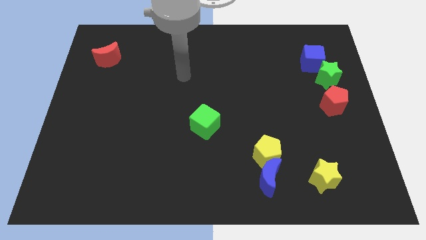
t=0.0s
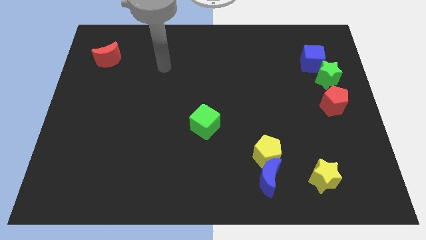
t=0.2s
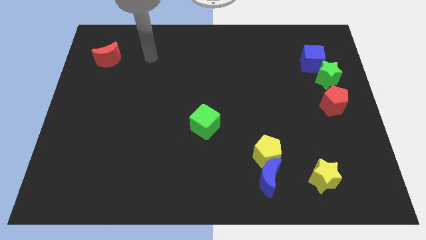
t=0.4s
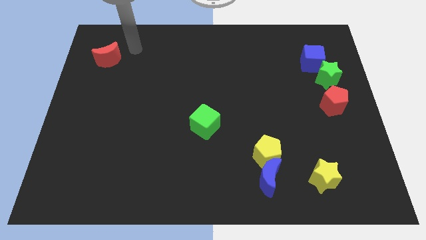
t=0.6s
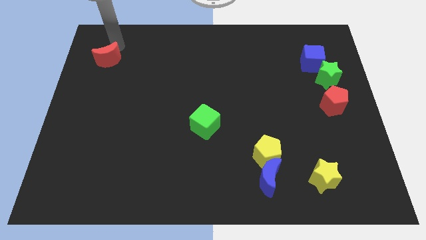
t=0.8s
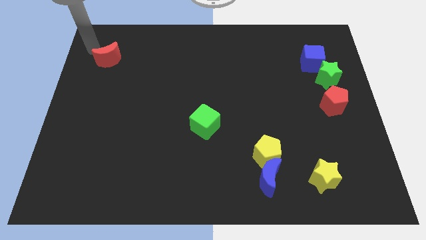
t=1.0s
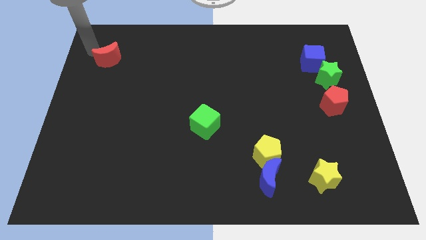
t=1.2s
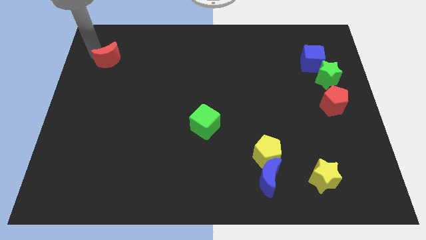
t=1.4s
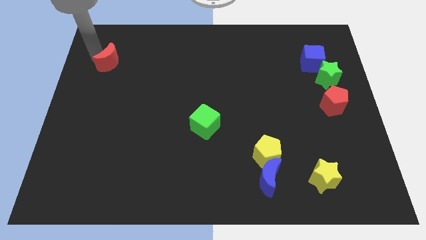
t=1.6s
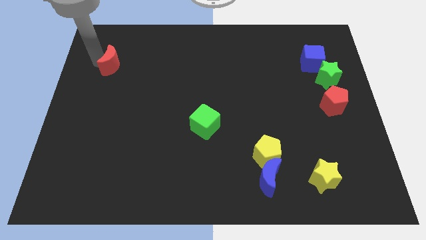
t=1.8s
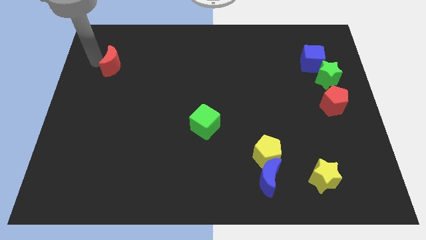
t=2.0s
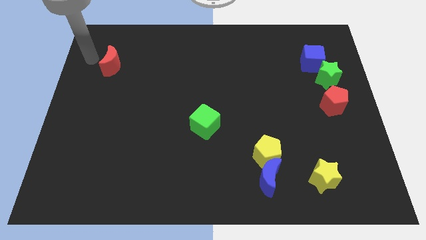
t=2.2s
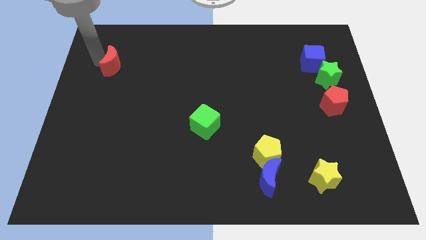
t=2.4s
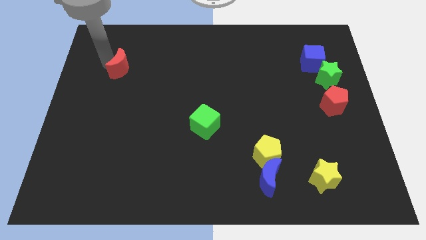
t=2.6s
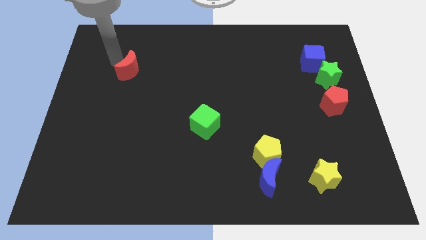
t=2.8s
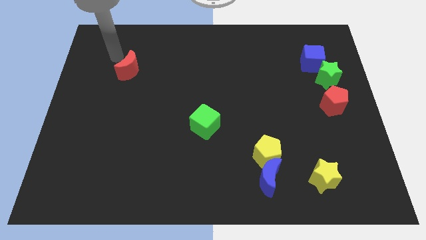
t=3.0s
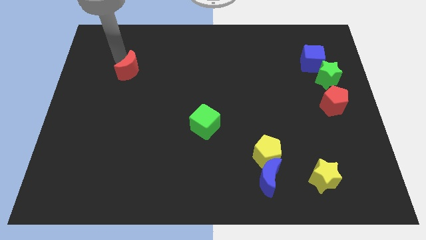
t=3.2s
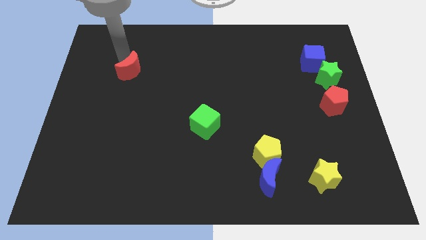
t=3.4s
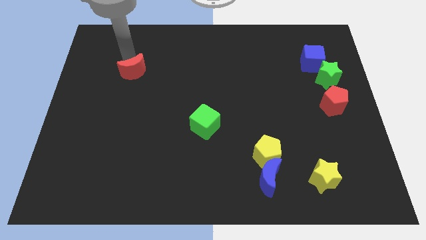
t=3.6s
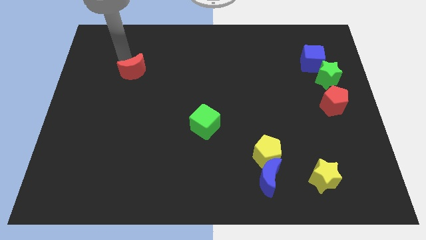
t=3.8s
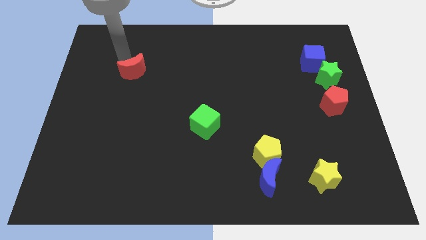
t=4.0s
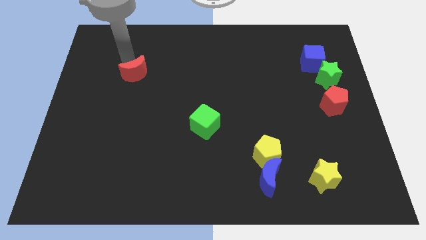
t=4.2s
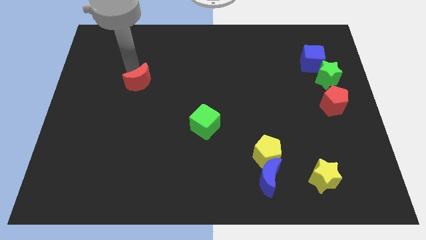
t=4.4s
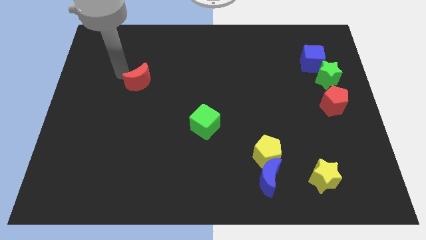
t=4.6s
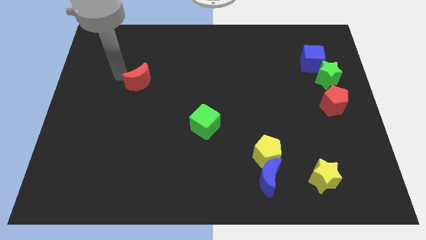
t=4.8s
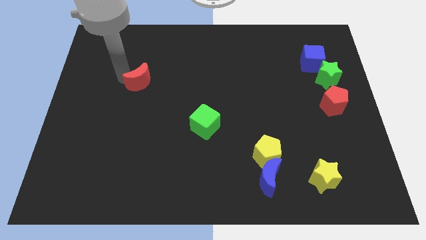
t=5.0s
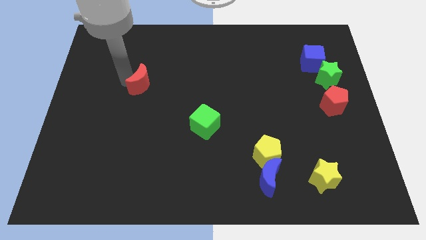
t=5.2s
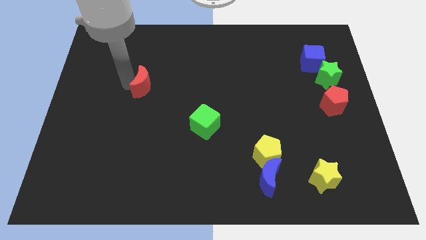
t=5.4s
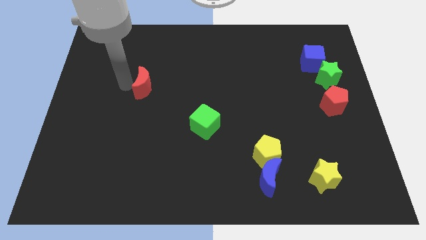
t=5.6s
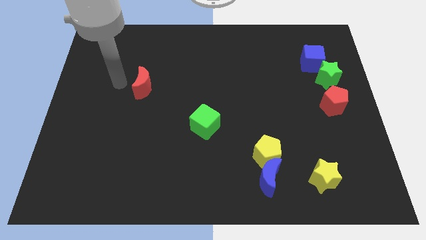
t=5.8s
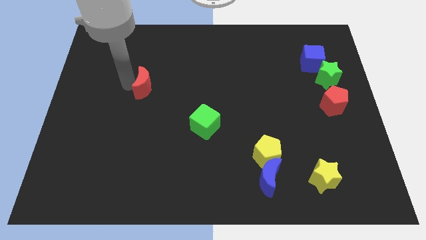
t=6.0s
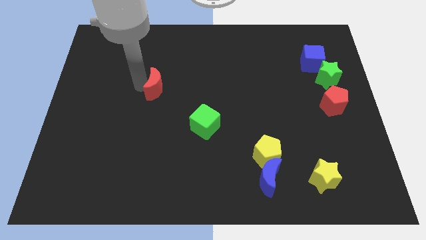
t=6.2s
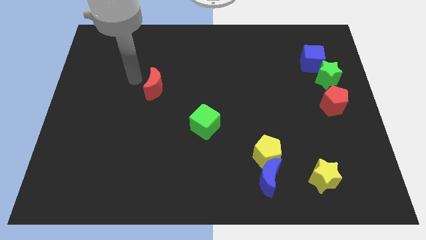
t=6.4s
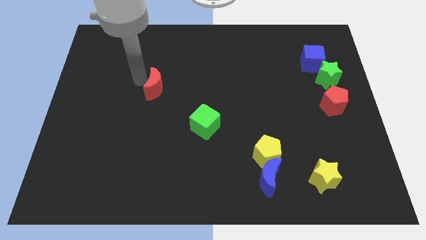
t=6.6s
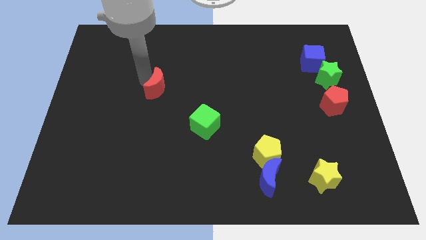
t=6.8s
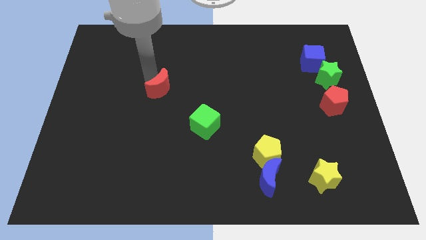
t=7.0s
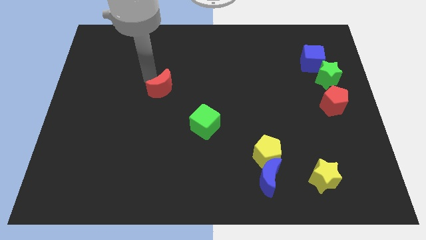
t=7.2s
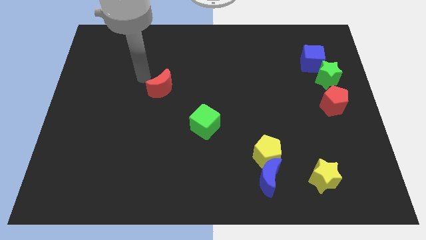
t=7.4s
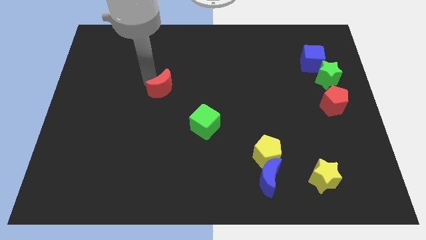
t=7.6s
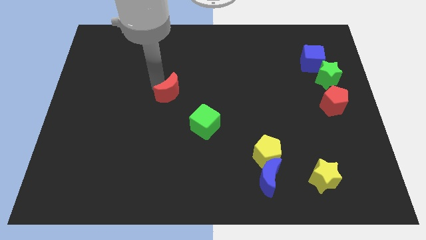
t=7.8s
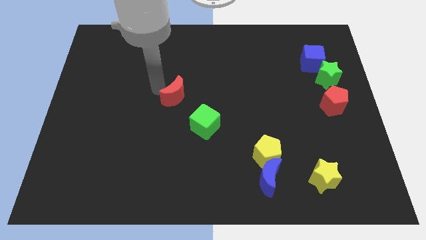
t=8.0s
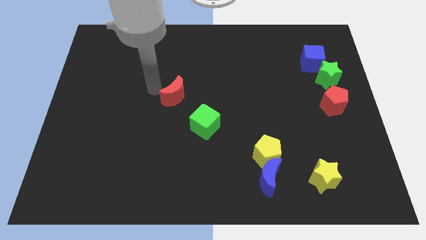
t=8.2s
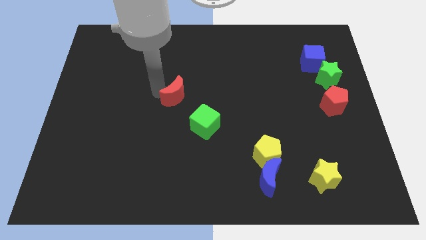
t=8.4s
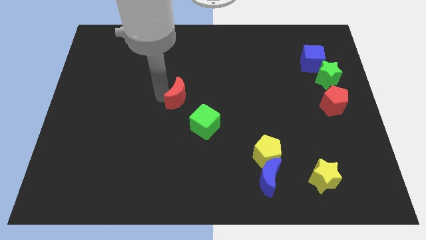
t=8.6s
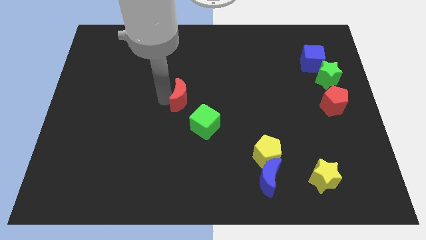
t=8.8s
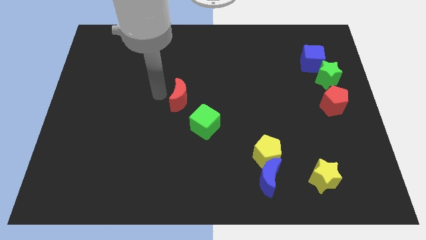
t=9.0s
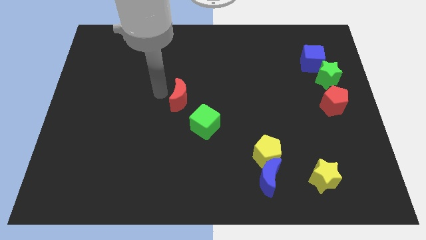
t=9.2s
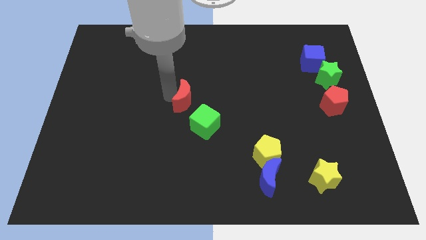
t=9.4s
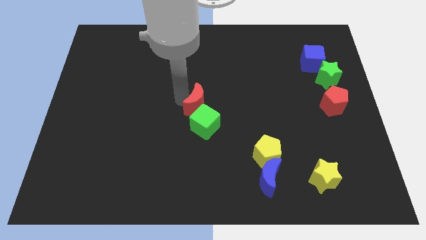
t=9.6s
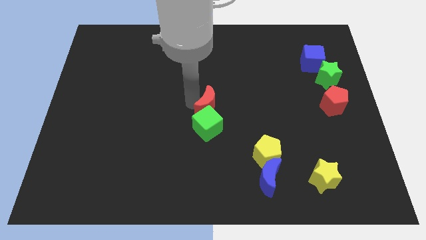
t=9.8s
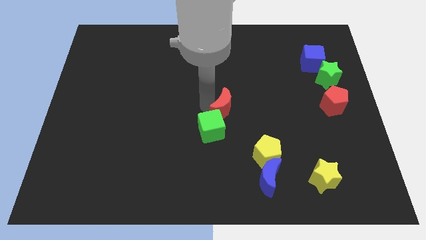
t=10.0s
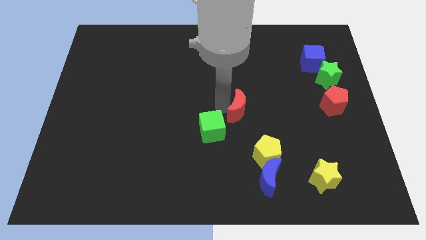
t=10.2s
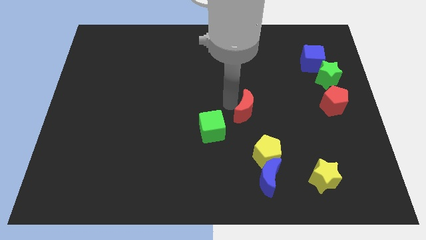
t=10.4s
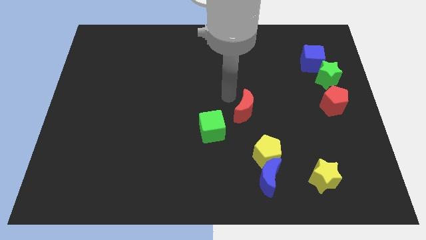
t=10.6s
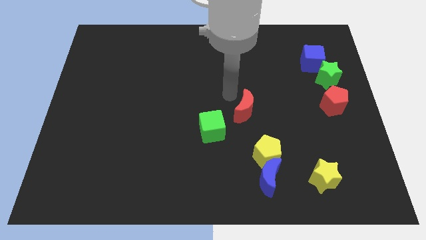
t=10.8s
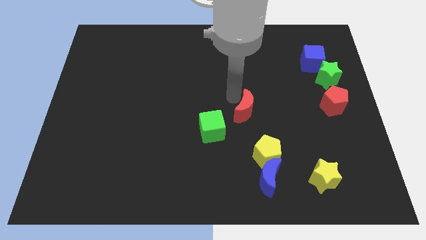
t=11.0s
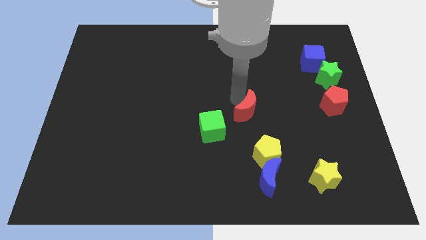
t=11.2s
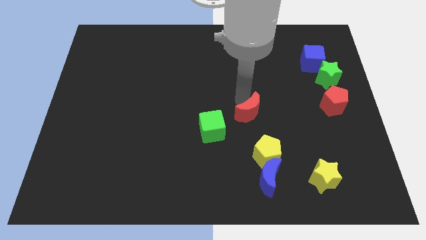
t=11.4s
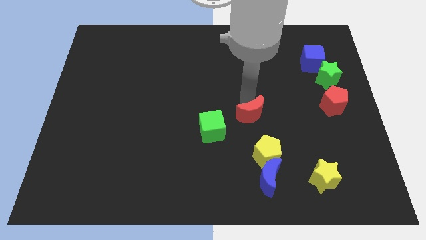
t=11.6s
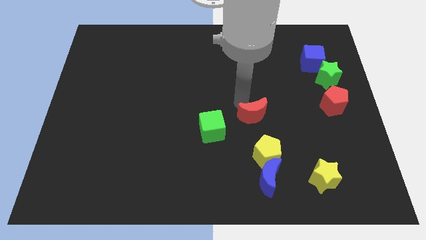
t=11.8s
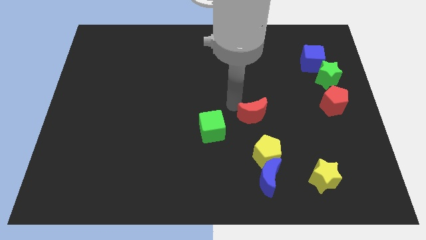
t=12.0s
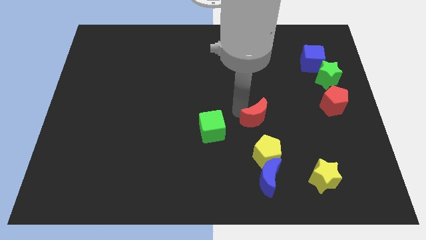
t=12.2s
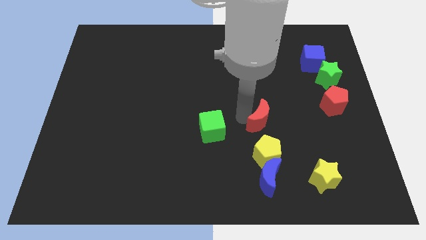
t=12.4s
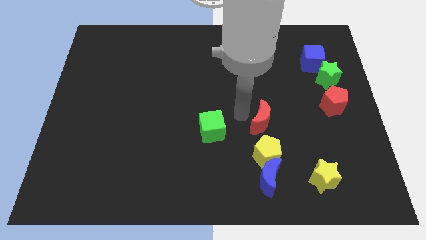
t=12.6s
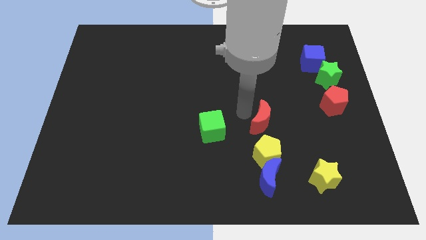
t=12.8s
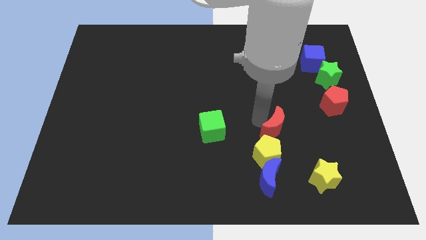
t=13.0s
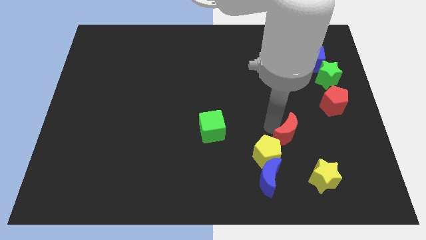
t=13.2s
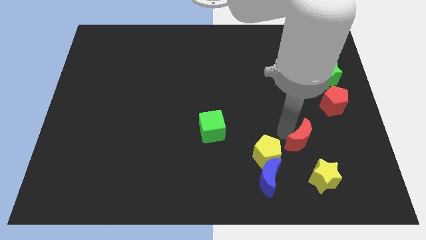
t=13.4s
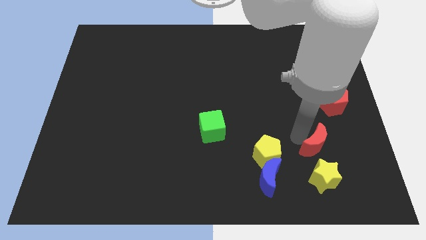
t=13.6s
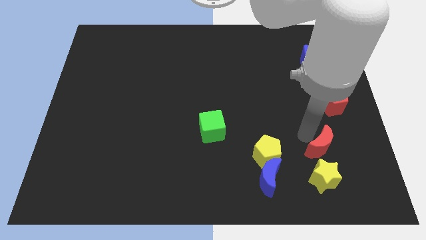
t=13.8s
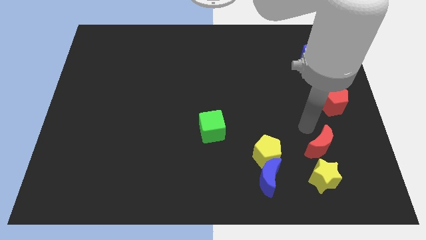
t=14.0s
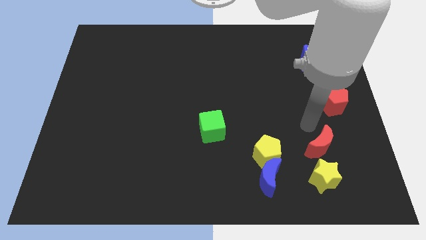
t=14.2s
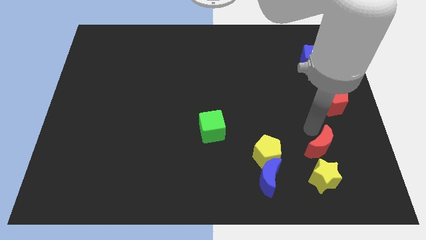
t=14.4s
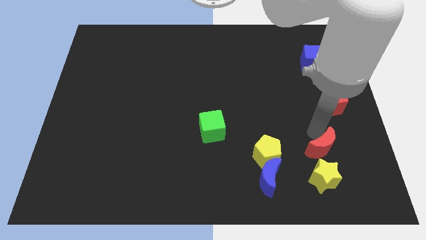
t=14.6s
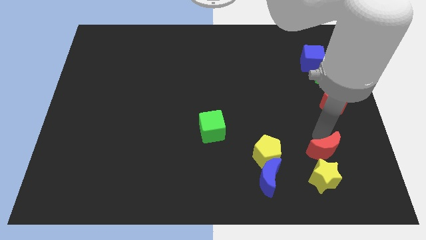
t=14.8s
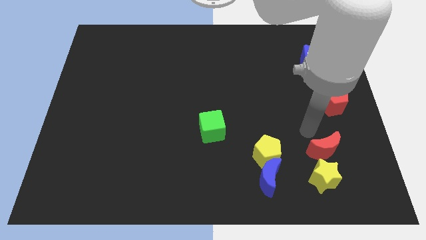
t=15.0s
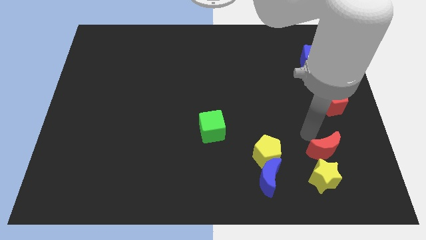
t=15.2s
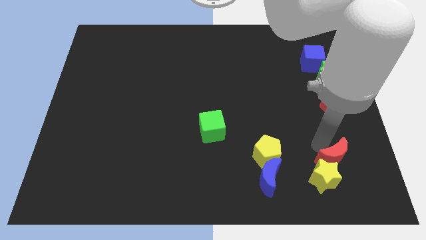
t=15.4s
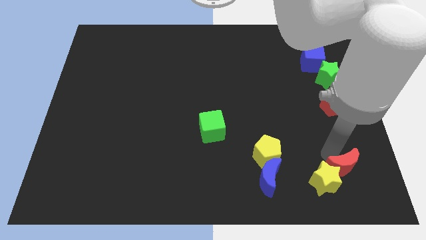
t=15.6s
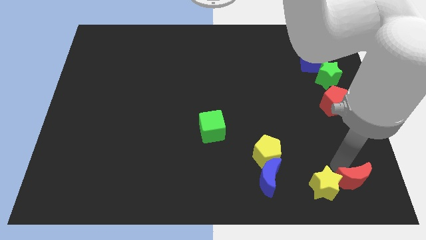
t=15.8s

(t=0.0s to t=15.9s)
push the red moon to the bottom right
